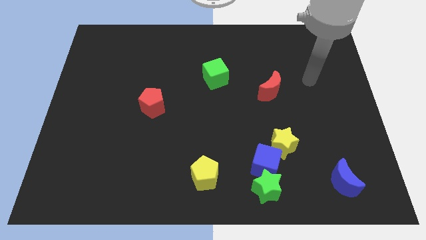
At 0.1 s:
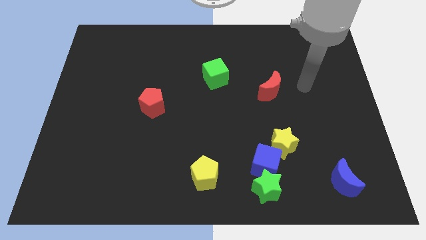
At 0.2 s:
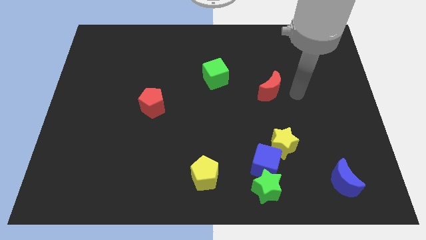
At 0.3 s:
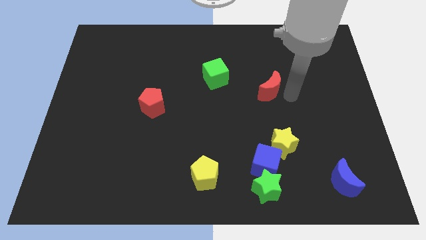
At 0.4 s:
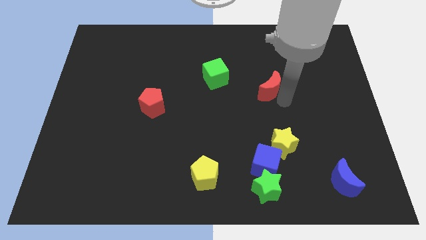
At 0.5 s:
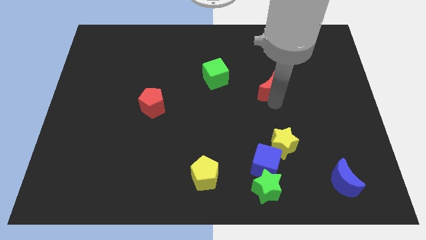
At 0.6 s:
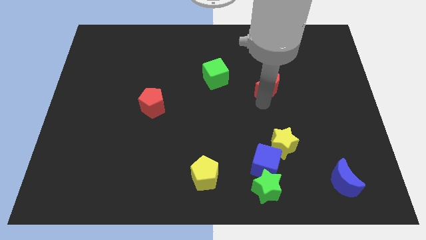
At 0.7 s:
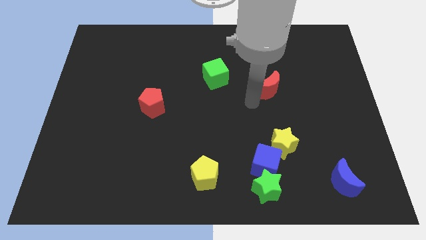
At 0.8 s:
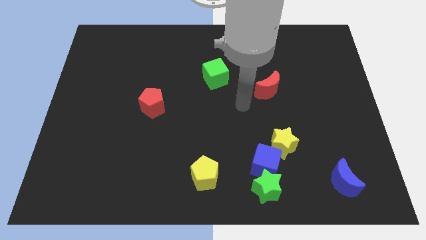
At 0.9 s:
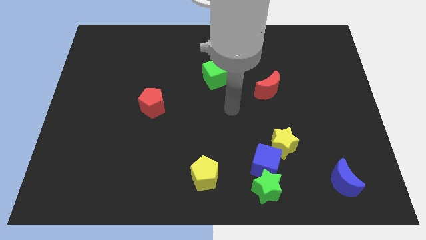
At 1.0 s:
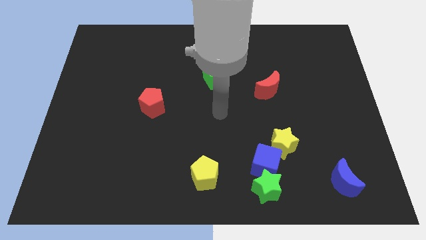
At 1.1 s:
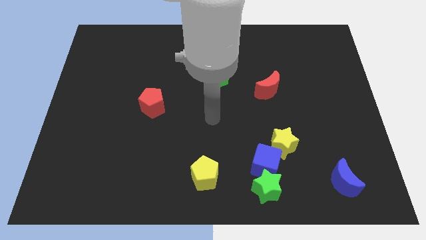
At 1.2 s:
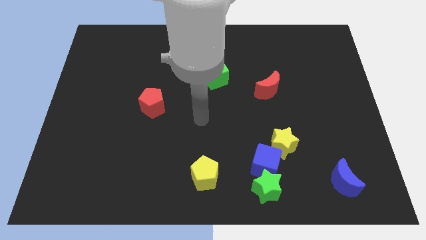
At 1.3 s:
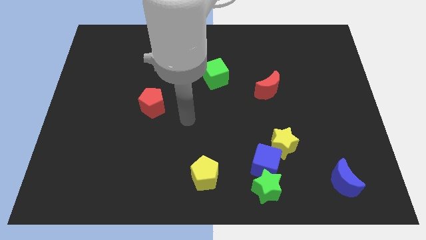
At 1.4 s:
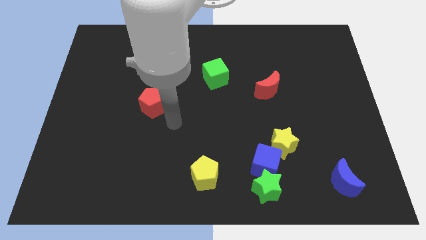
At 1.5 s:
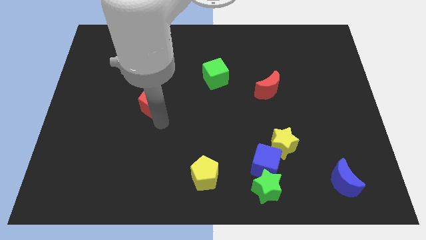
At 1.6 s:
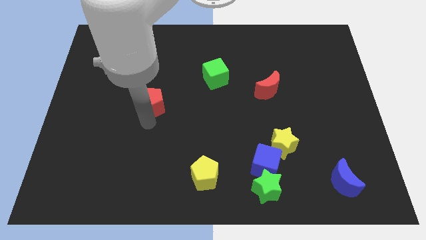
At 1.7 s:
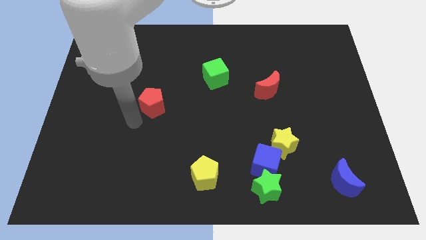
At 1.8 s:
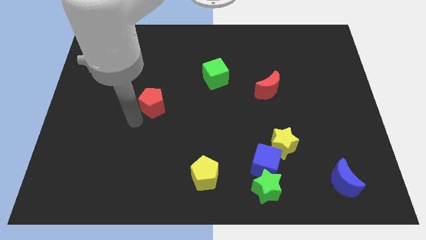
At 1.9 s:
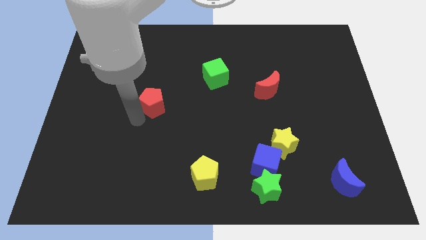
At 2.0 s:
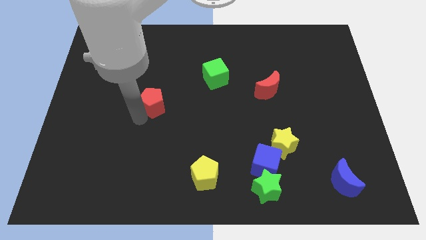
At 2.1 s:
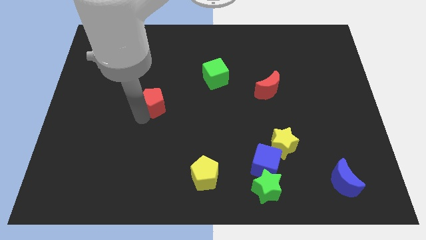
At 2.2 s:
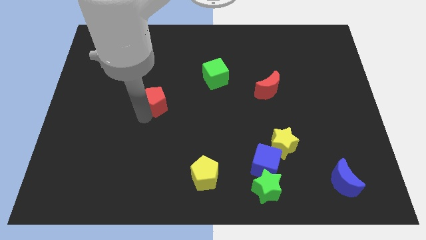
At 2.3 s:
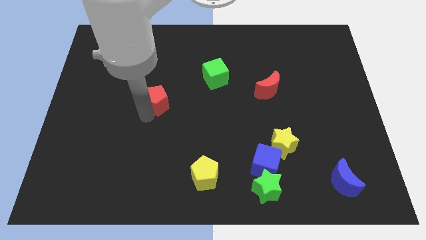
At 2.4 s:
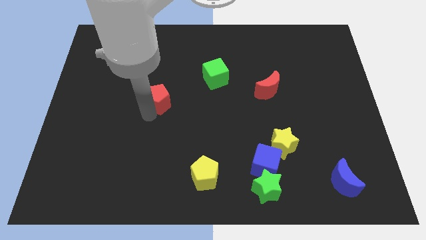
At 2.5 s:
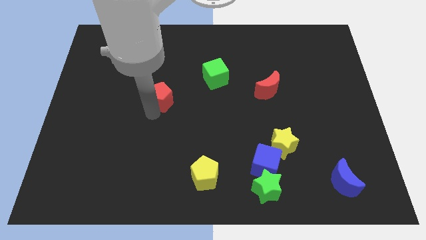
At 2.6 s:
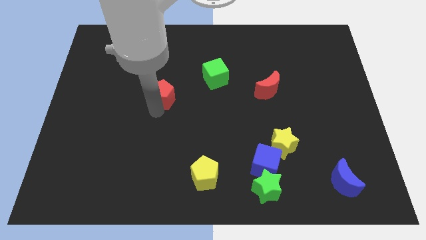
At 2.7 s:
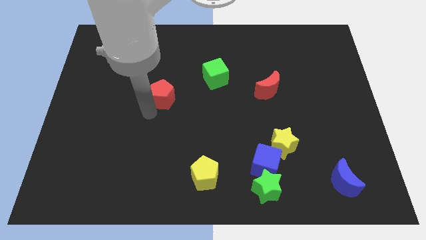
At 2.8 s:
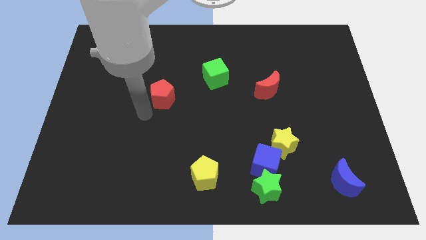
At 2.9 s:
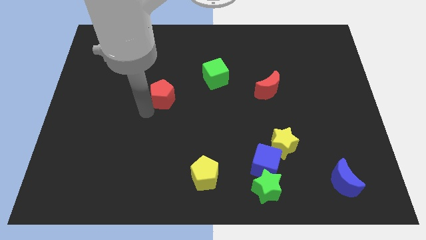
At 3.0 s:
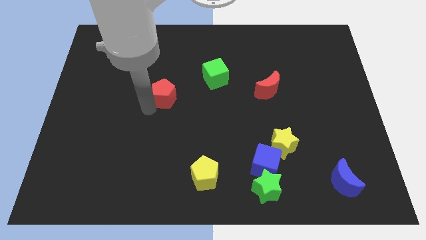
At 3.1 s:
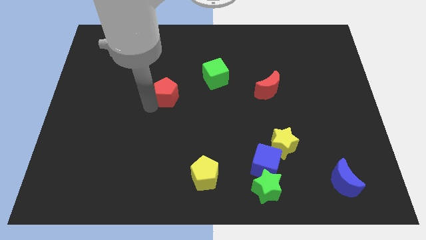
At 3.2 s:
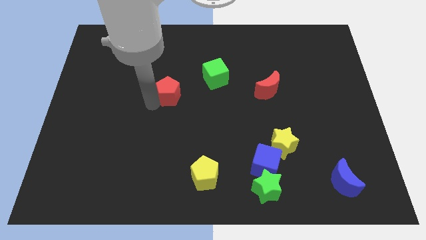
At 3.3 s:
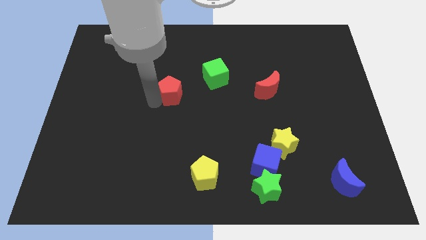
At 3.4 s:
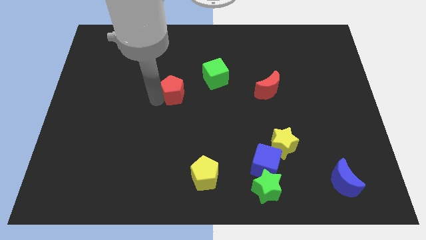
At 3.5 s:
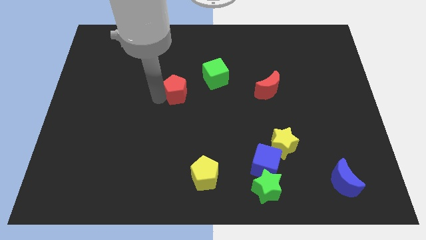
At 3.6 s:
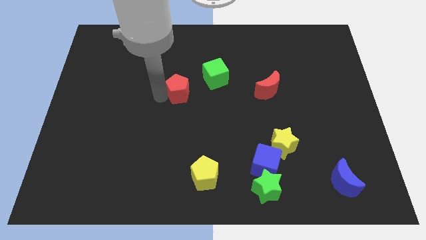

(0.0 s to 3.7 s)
slide the red pentagon up and then right somewhat

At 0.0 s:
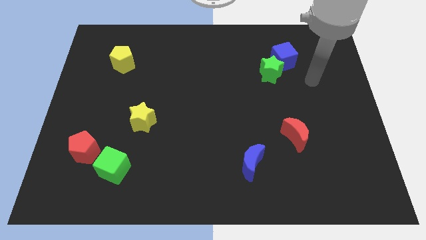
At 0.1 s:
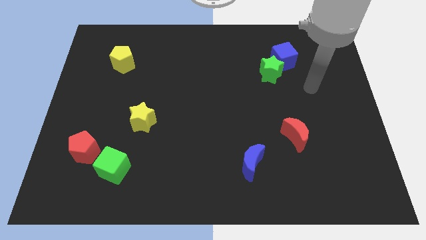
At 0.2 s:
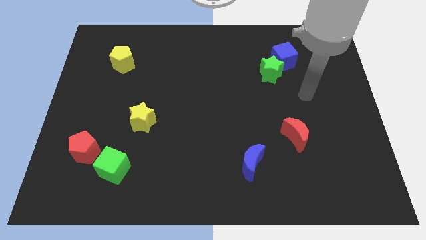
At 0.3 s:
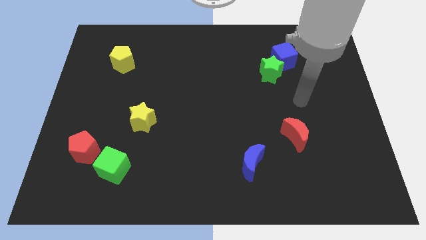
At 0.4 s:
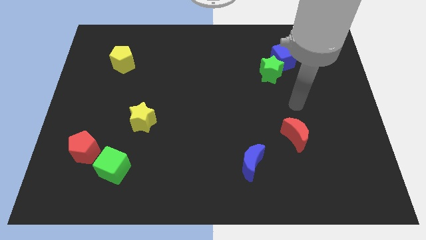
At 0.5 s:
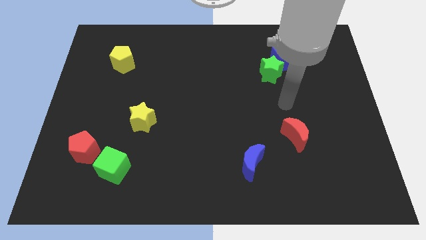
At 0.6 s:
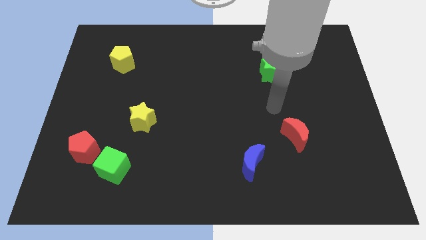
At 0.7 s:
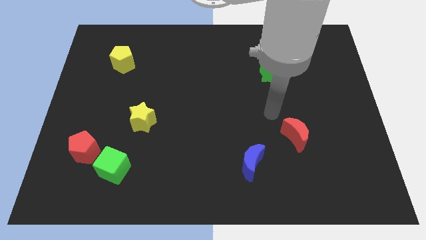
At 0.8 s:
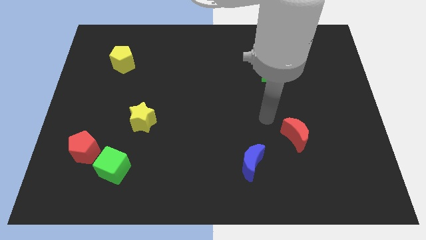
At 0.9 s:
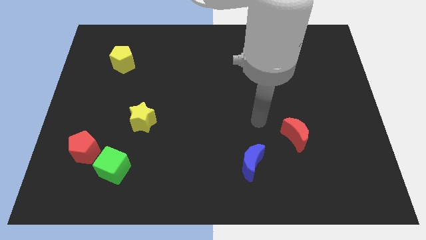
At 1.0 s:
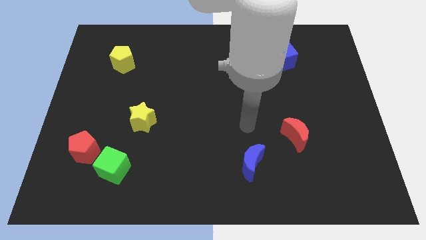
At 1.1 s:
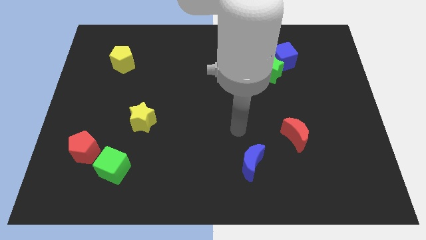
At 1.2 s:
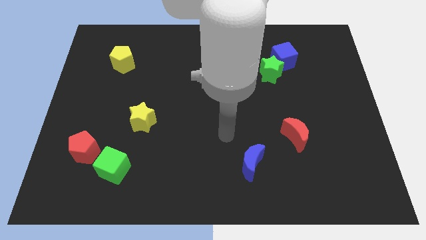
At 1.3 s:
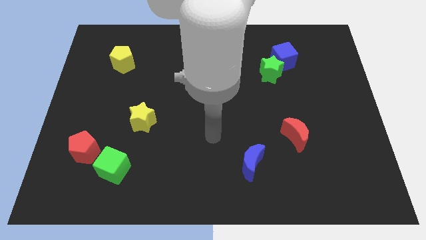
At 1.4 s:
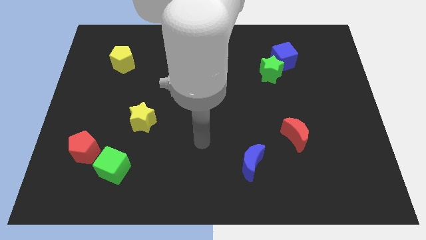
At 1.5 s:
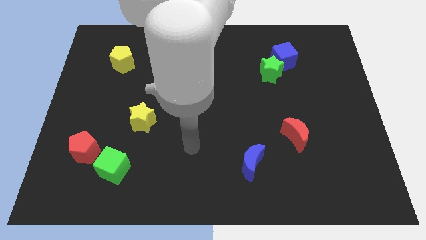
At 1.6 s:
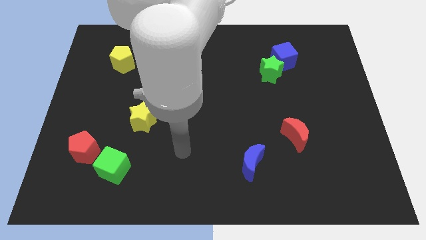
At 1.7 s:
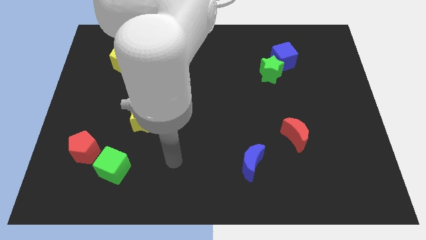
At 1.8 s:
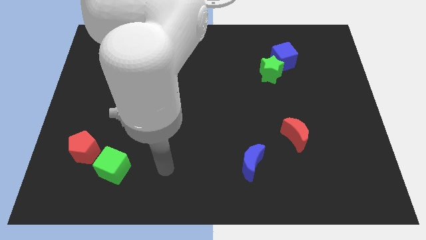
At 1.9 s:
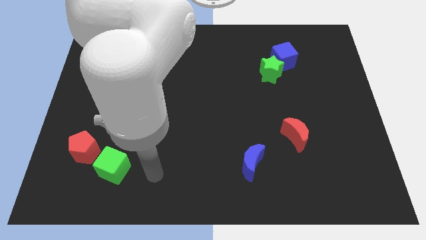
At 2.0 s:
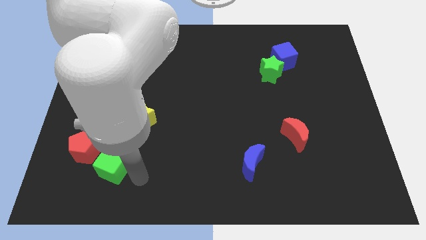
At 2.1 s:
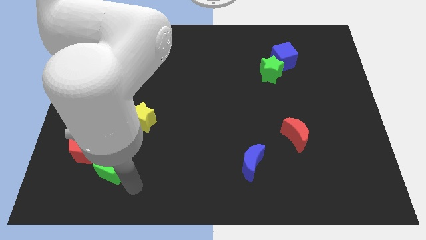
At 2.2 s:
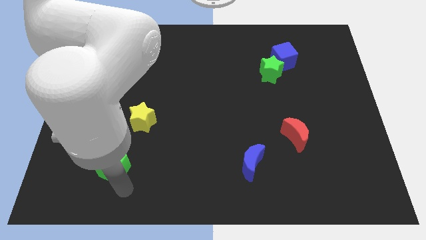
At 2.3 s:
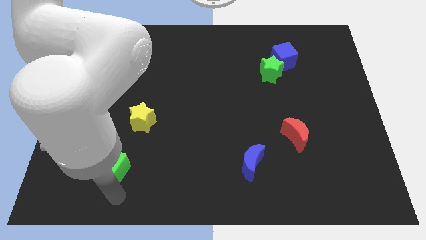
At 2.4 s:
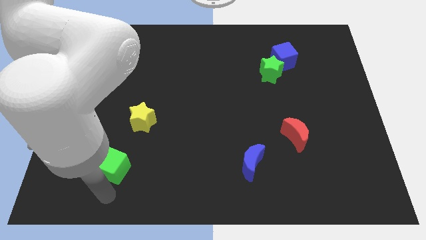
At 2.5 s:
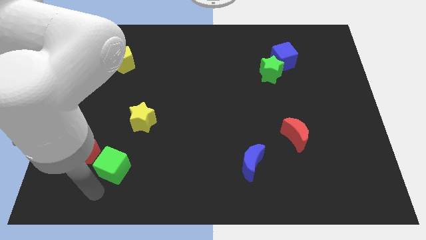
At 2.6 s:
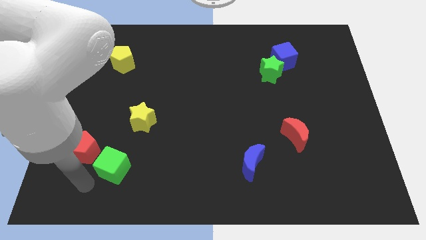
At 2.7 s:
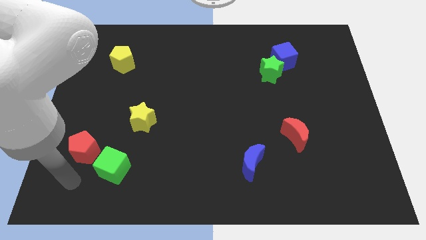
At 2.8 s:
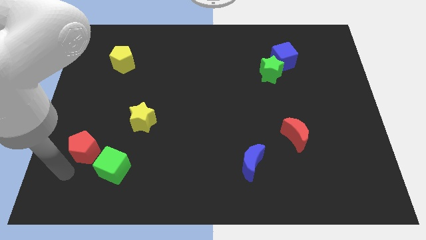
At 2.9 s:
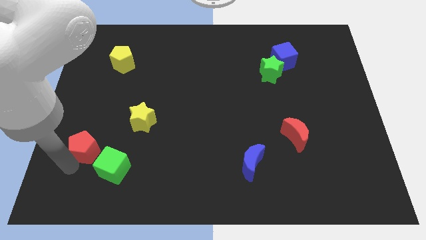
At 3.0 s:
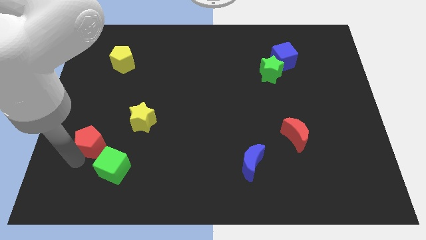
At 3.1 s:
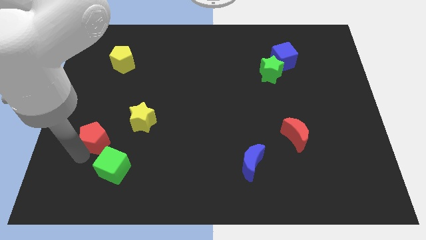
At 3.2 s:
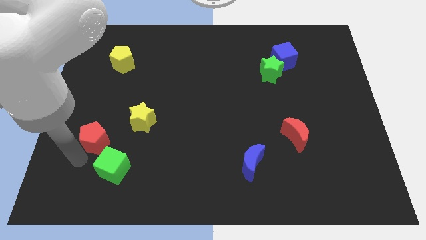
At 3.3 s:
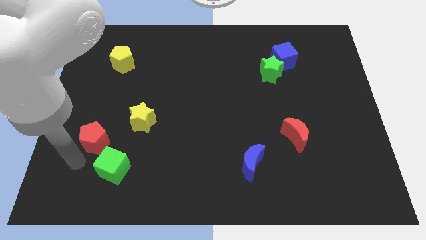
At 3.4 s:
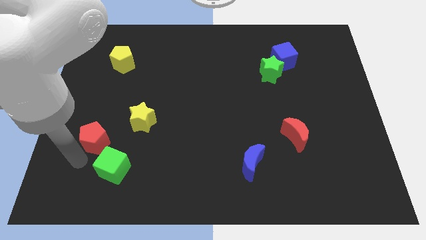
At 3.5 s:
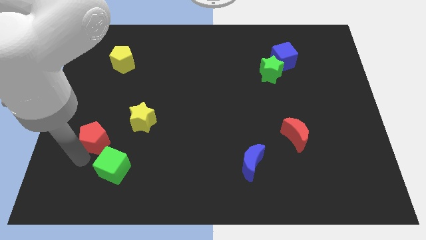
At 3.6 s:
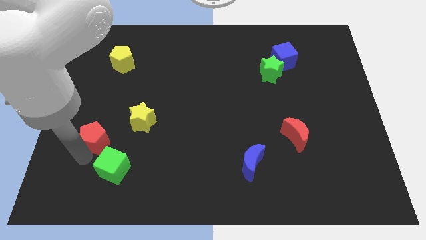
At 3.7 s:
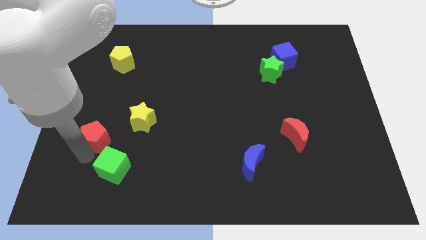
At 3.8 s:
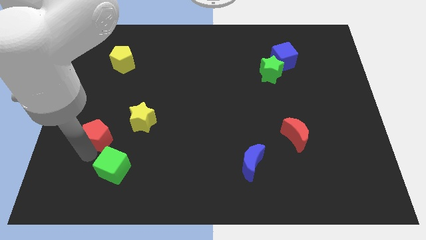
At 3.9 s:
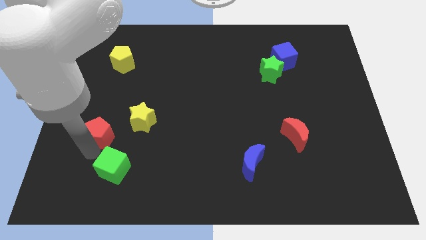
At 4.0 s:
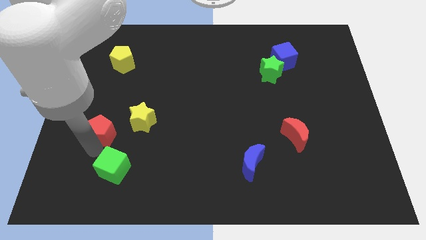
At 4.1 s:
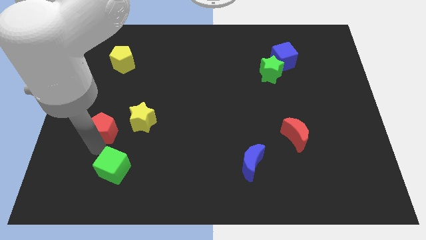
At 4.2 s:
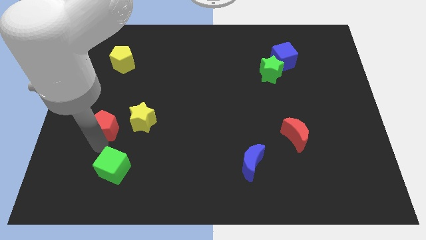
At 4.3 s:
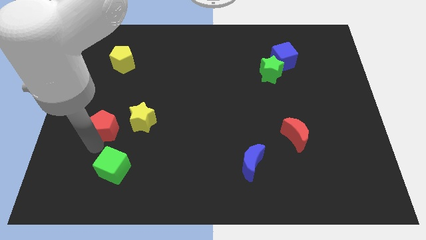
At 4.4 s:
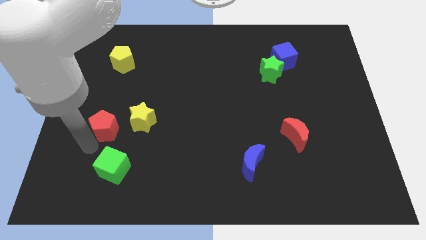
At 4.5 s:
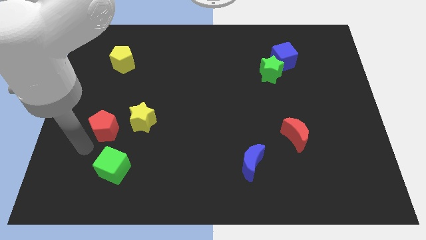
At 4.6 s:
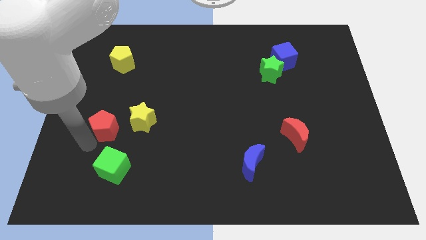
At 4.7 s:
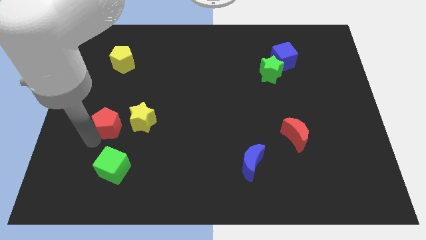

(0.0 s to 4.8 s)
move the red pentagon diagonally up and to the right slightly
